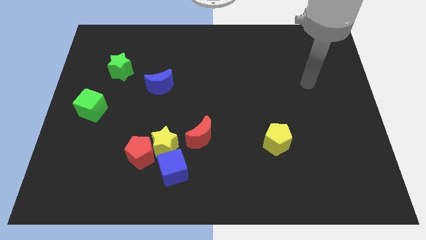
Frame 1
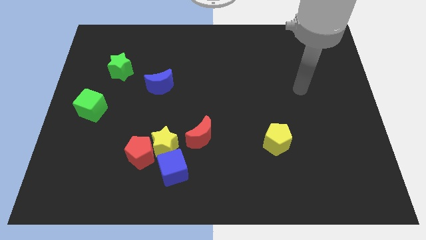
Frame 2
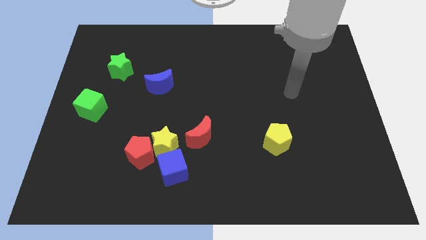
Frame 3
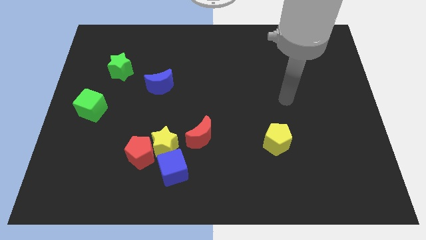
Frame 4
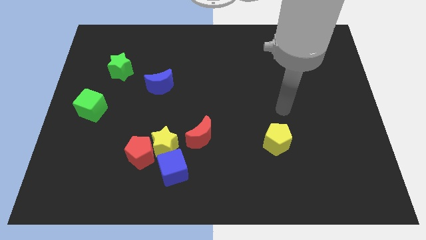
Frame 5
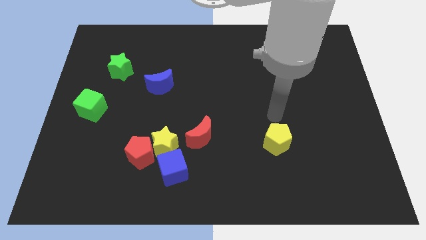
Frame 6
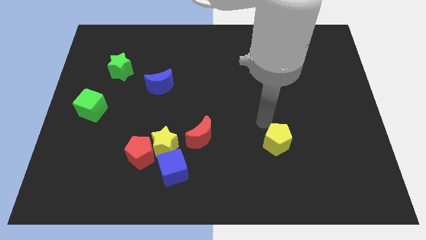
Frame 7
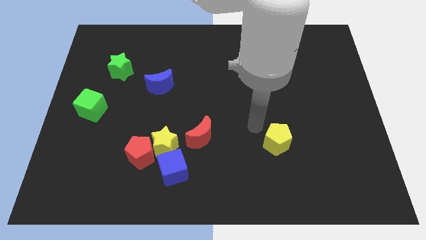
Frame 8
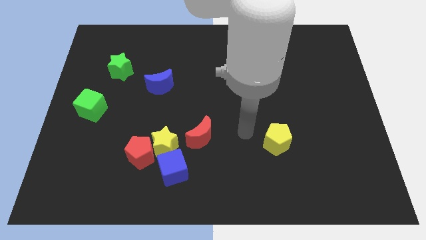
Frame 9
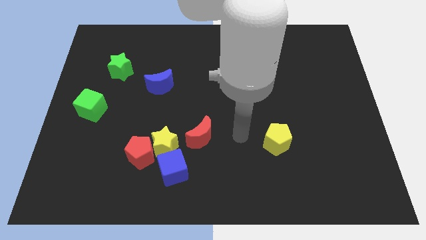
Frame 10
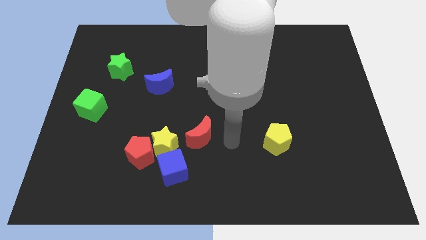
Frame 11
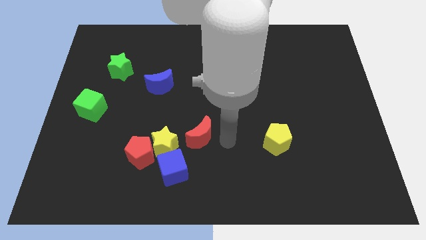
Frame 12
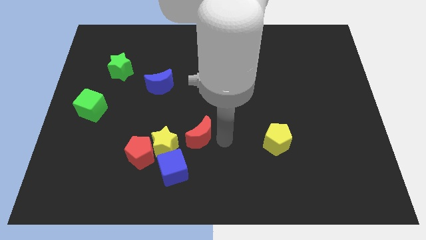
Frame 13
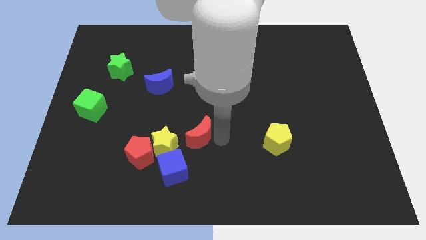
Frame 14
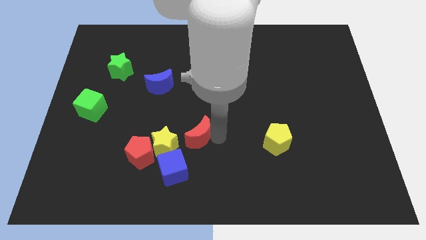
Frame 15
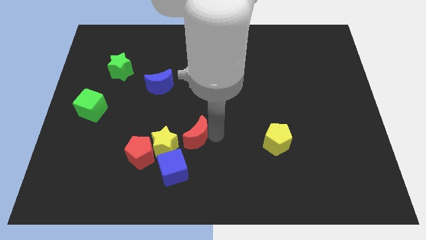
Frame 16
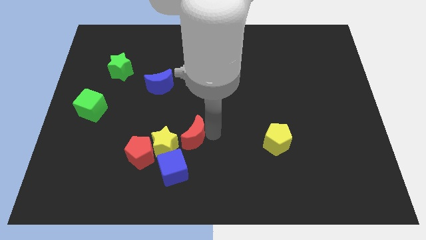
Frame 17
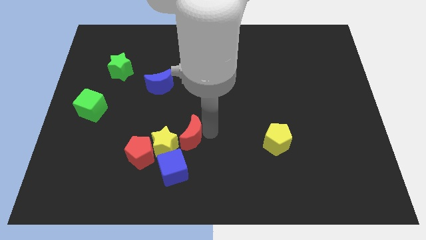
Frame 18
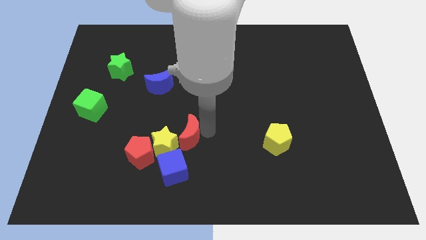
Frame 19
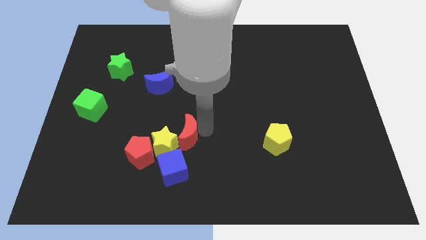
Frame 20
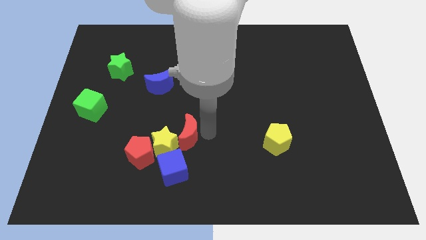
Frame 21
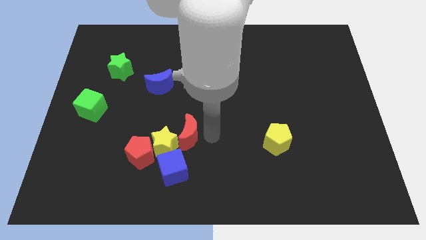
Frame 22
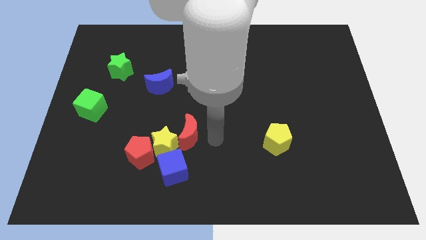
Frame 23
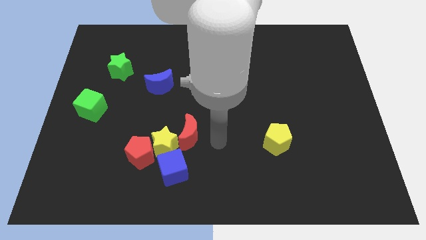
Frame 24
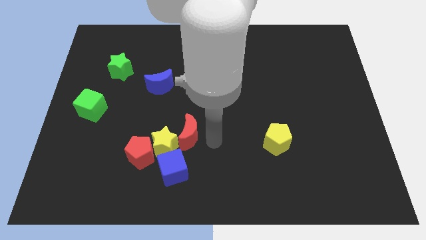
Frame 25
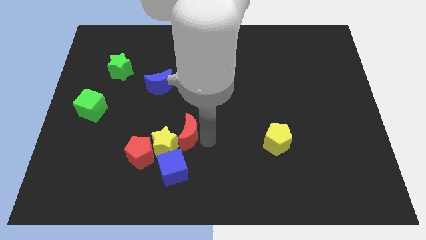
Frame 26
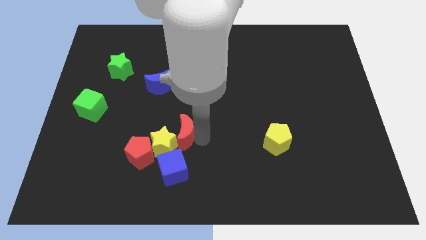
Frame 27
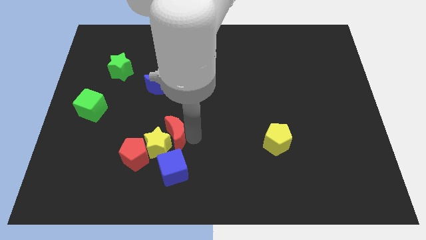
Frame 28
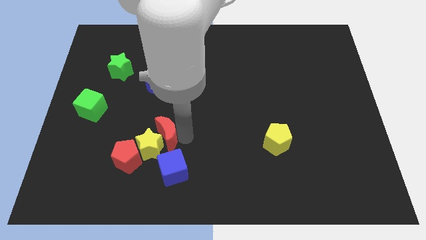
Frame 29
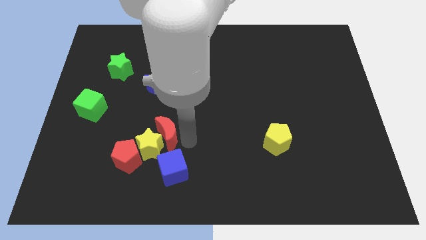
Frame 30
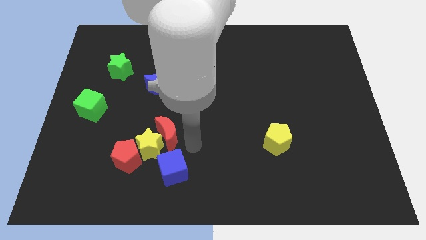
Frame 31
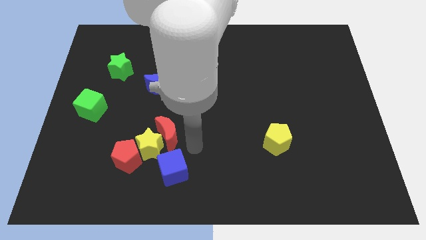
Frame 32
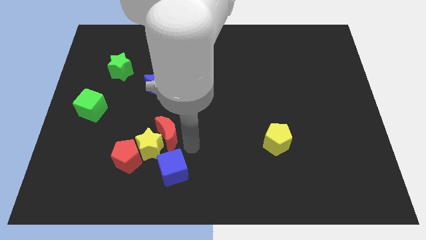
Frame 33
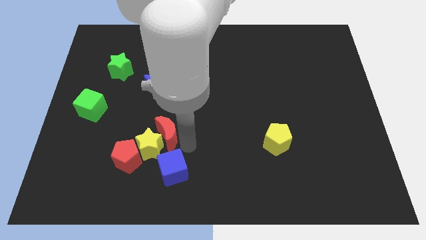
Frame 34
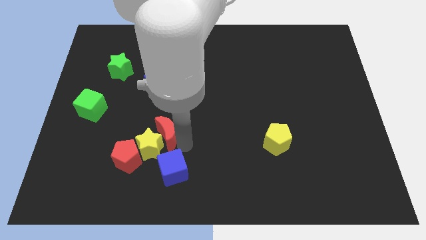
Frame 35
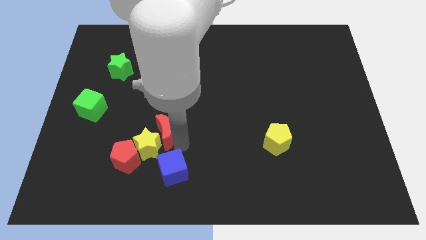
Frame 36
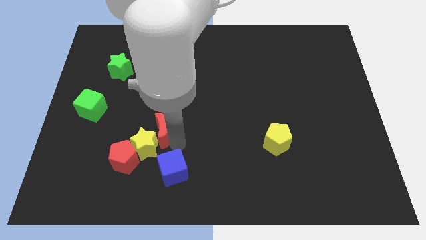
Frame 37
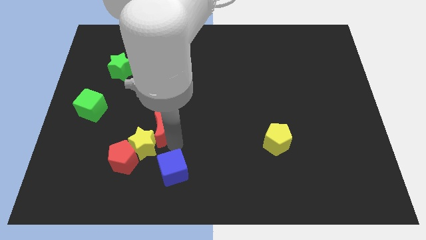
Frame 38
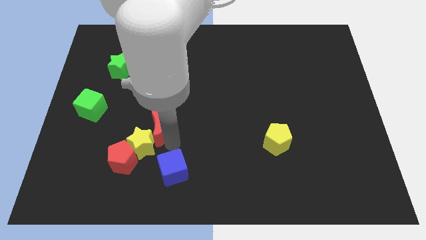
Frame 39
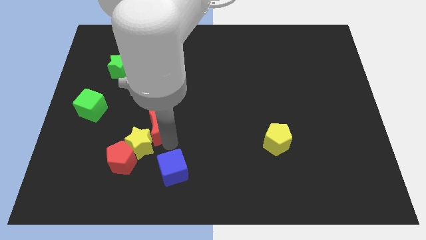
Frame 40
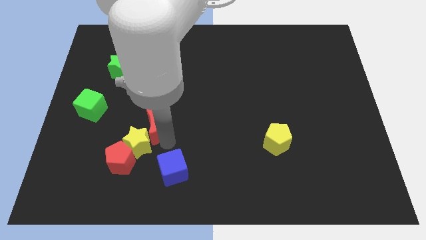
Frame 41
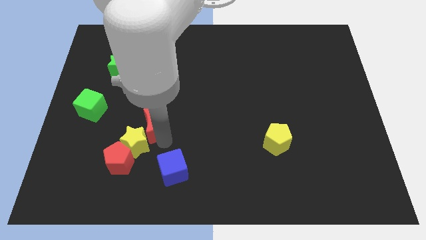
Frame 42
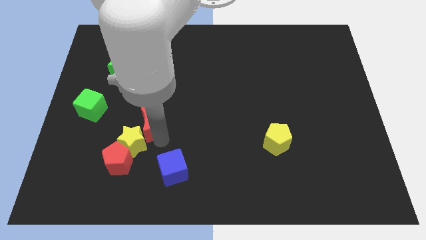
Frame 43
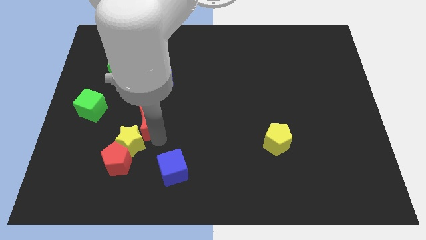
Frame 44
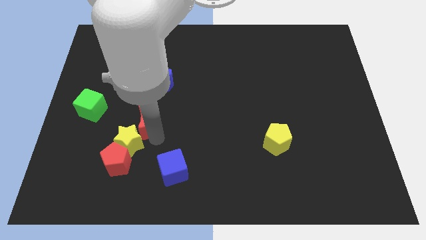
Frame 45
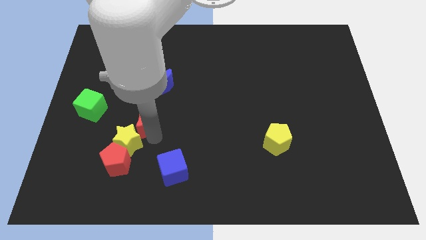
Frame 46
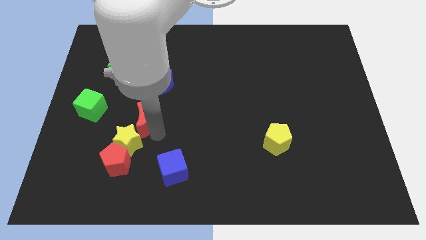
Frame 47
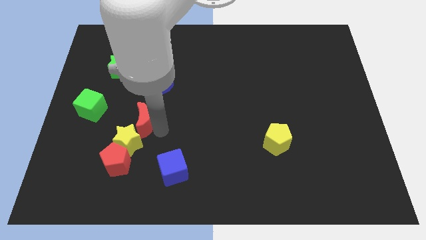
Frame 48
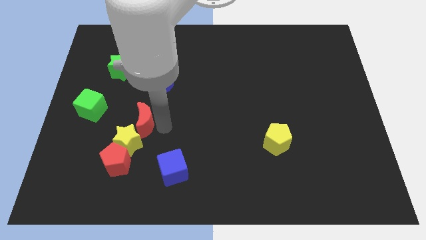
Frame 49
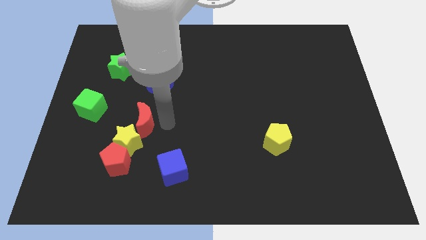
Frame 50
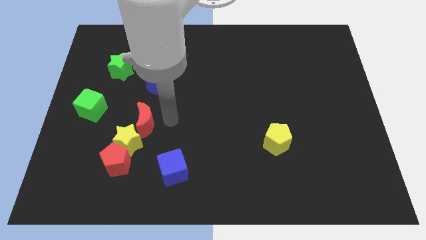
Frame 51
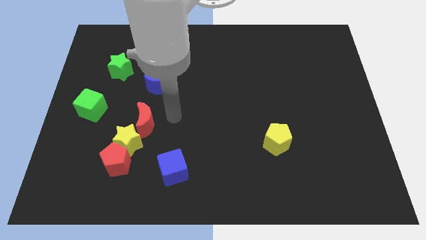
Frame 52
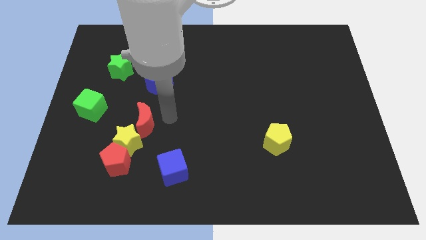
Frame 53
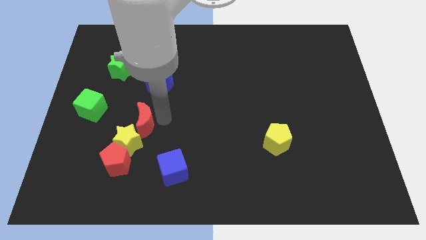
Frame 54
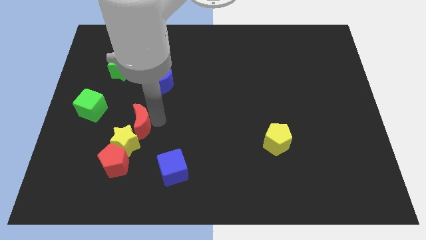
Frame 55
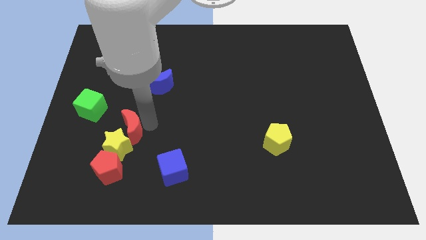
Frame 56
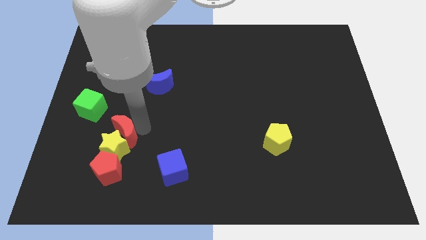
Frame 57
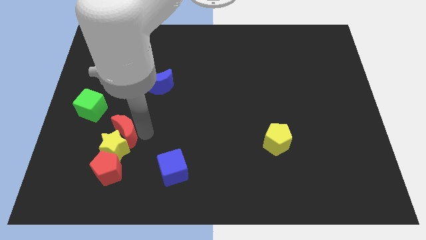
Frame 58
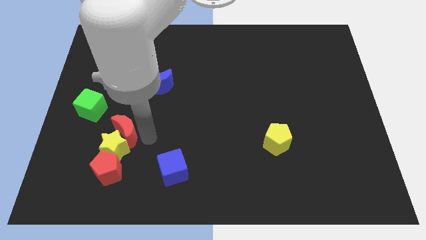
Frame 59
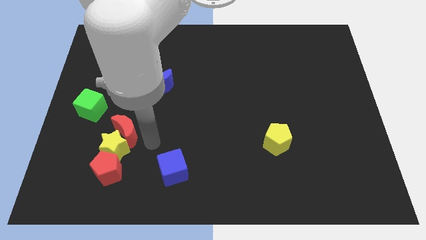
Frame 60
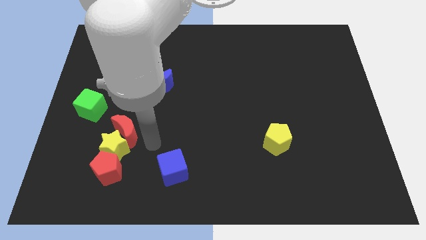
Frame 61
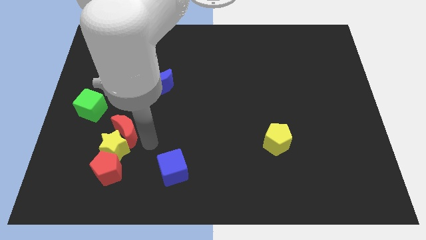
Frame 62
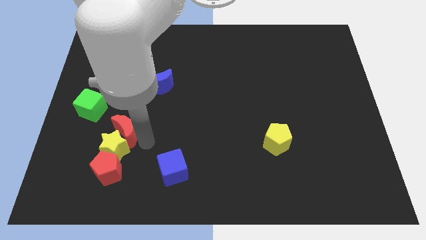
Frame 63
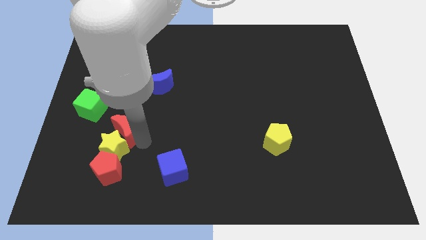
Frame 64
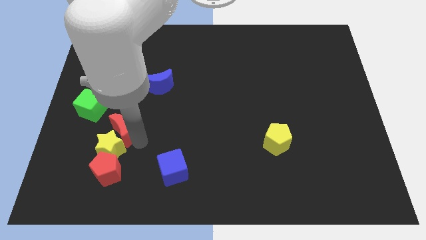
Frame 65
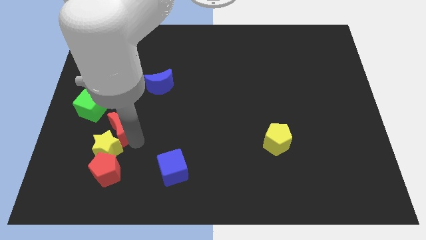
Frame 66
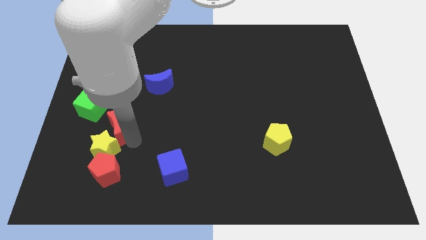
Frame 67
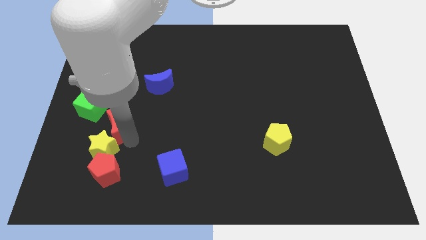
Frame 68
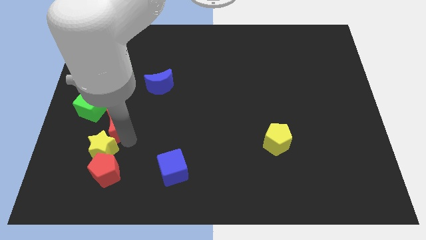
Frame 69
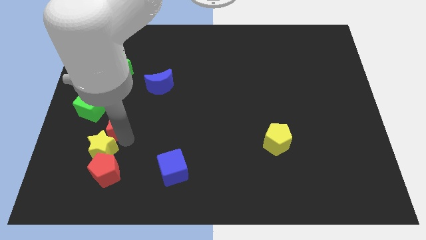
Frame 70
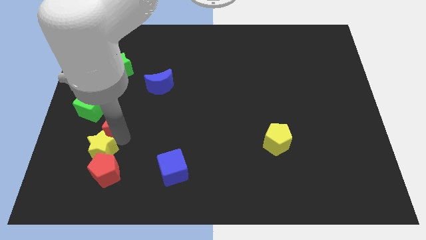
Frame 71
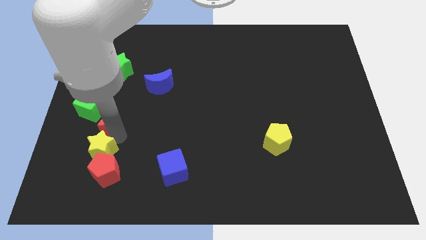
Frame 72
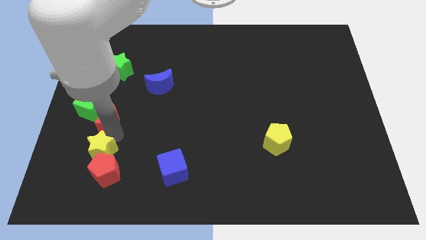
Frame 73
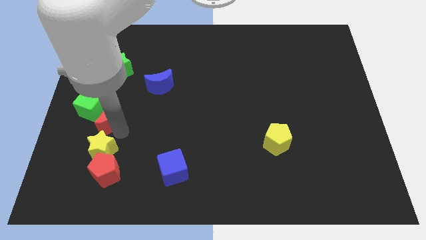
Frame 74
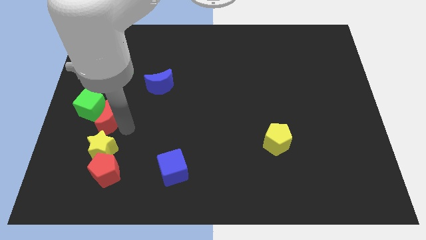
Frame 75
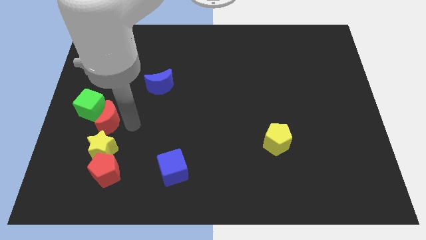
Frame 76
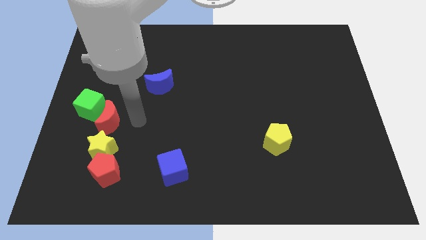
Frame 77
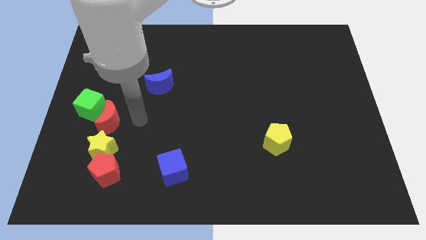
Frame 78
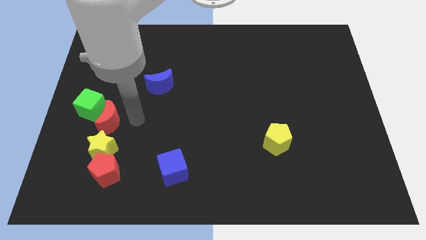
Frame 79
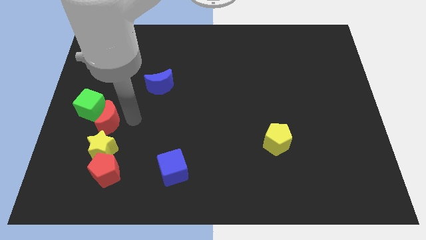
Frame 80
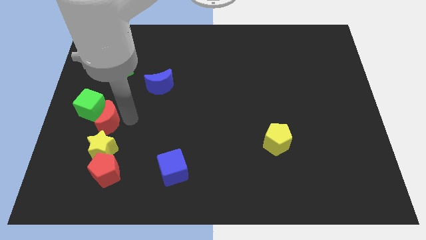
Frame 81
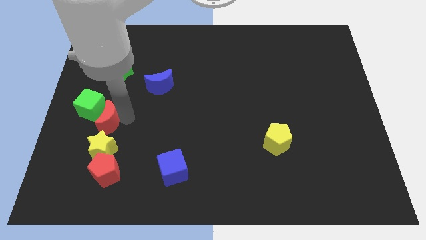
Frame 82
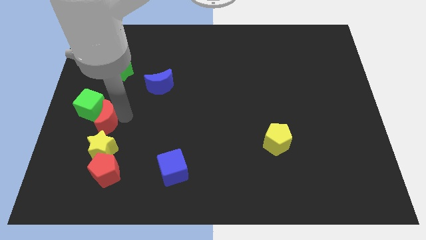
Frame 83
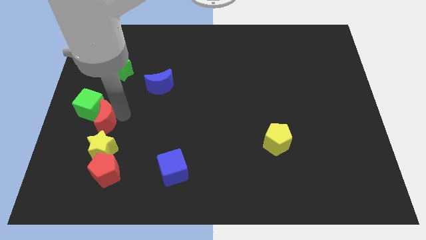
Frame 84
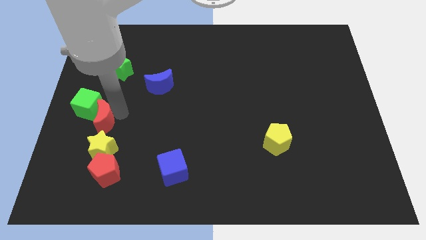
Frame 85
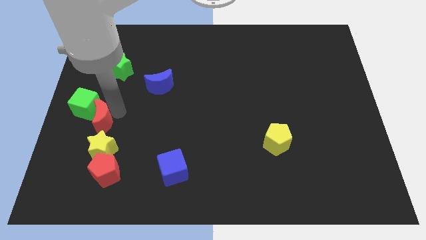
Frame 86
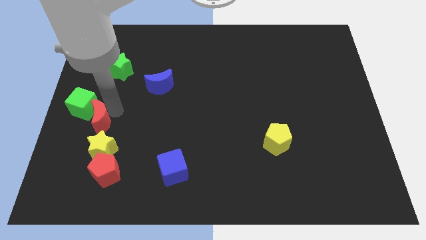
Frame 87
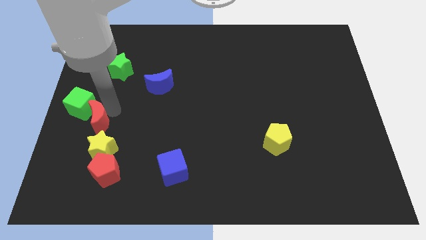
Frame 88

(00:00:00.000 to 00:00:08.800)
put the red moon to the left side of the board
